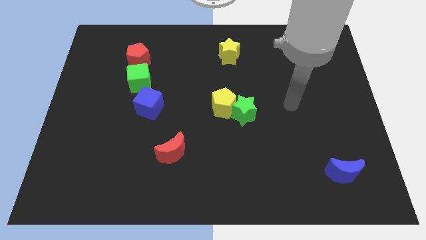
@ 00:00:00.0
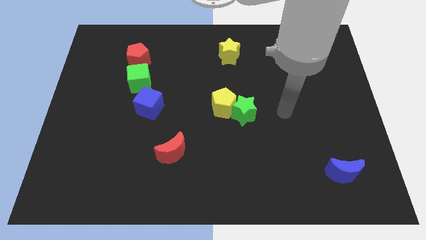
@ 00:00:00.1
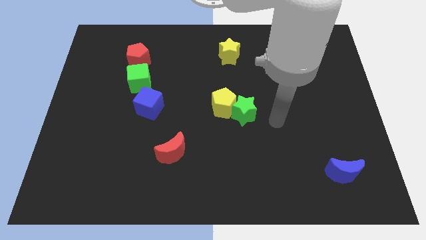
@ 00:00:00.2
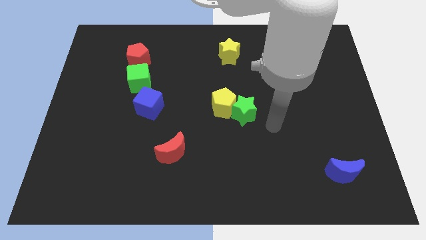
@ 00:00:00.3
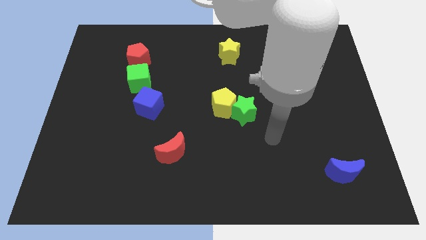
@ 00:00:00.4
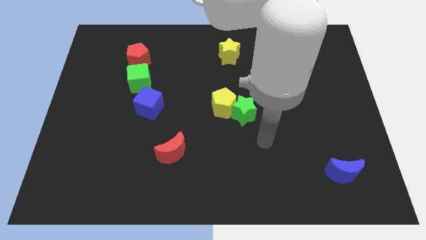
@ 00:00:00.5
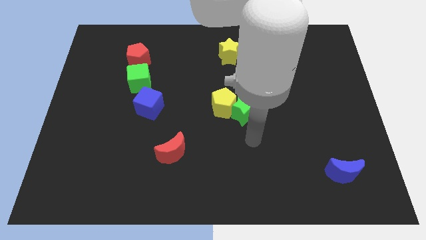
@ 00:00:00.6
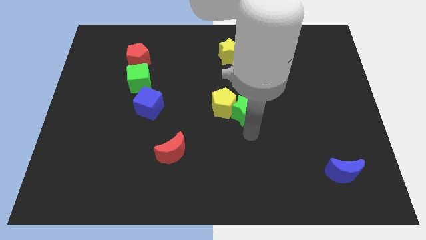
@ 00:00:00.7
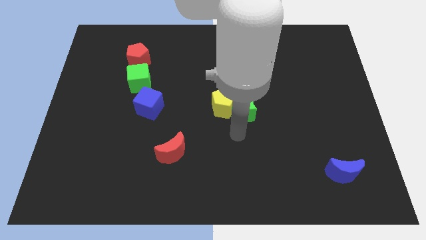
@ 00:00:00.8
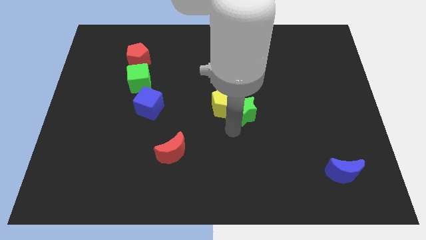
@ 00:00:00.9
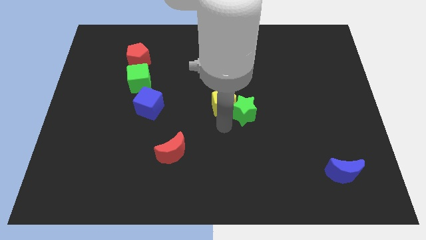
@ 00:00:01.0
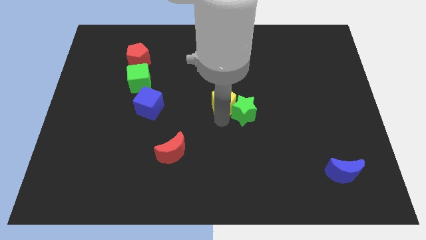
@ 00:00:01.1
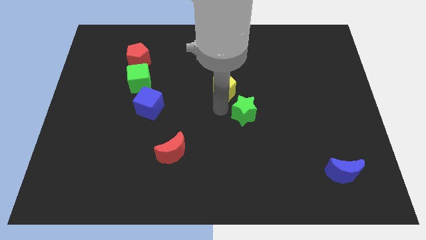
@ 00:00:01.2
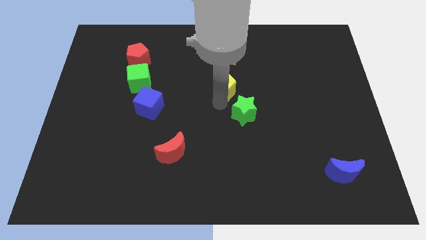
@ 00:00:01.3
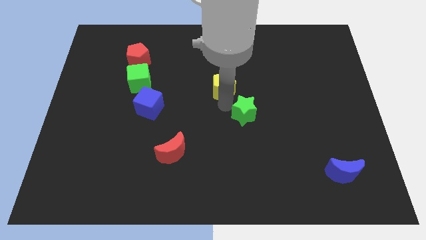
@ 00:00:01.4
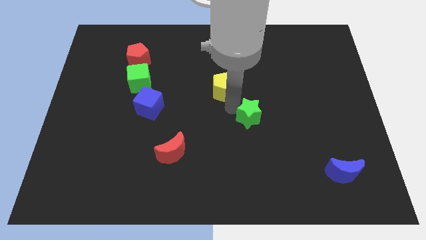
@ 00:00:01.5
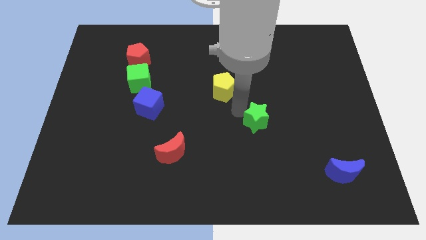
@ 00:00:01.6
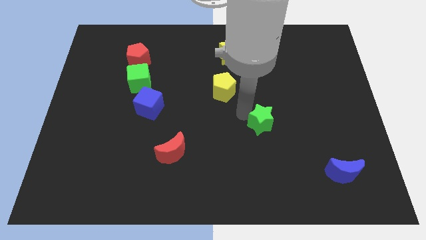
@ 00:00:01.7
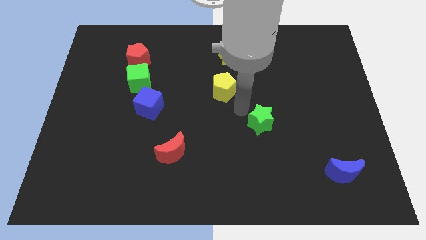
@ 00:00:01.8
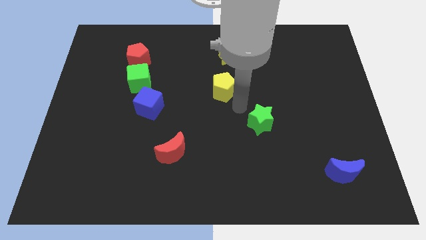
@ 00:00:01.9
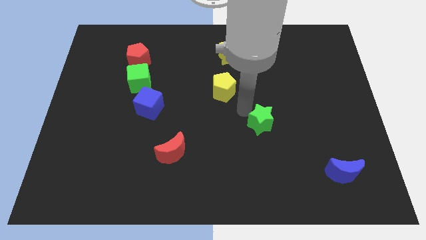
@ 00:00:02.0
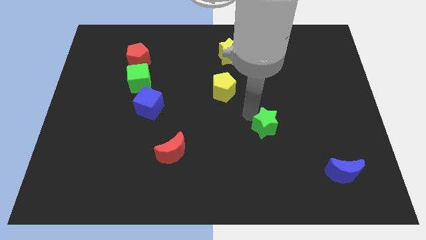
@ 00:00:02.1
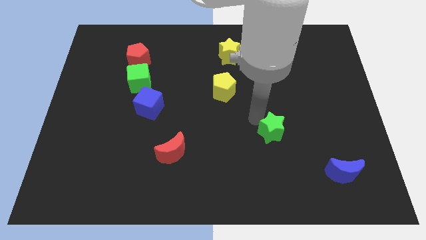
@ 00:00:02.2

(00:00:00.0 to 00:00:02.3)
slide the green star a bit diagonally down and to the right

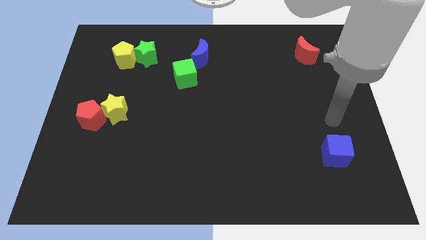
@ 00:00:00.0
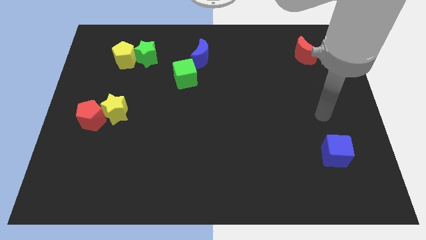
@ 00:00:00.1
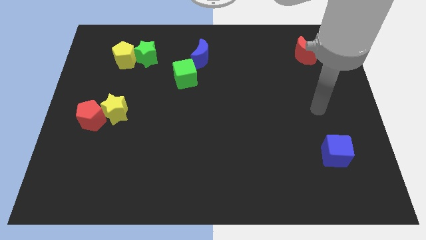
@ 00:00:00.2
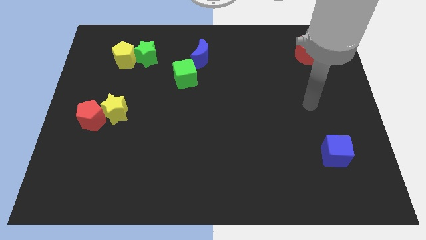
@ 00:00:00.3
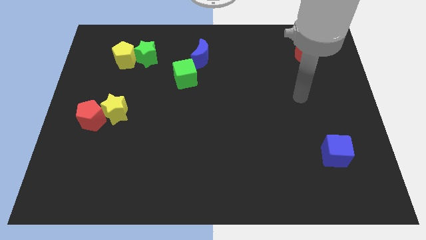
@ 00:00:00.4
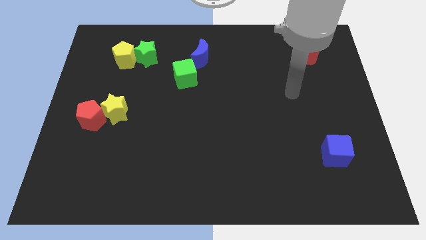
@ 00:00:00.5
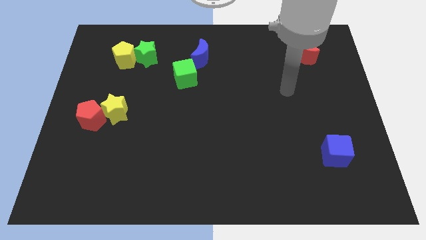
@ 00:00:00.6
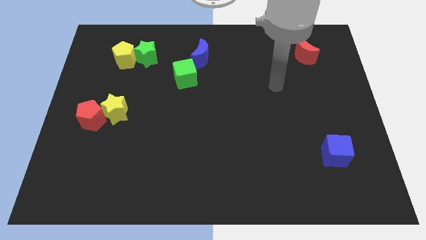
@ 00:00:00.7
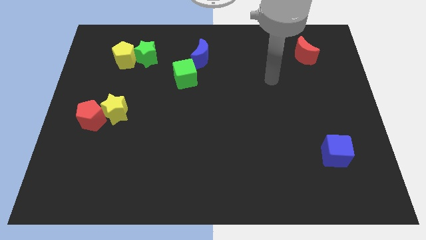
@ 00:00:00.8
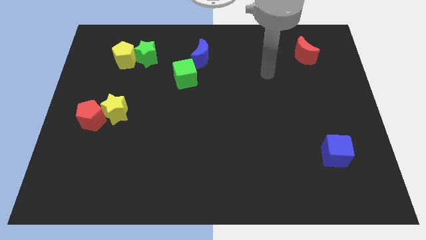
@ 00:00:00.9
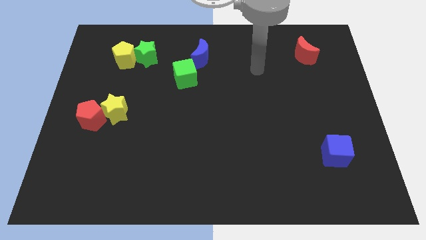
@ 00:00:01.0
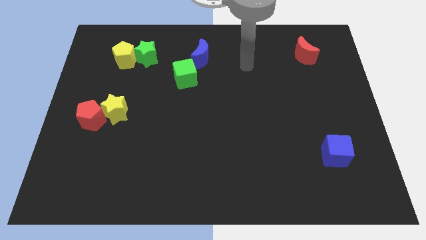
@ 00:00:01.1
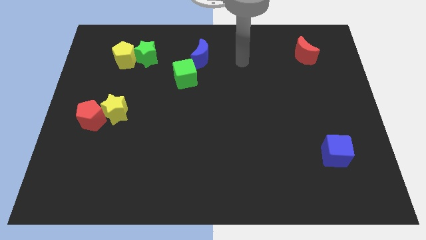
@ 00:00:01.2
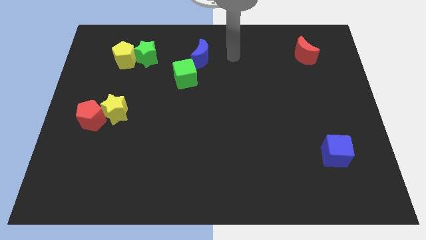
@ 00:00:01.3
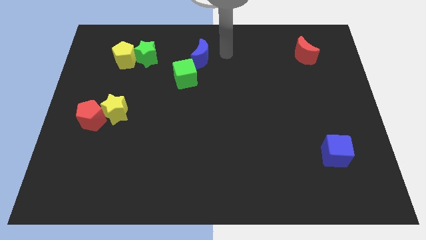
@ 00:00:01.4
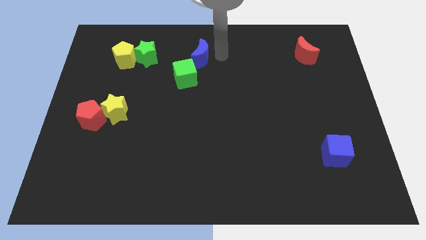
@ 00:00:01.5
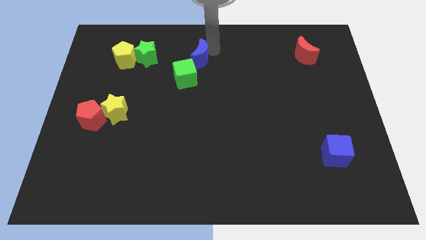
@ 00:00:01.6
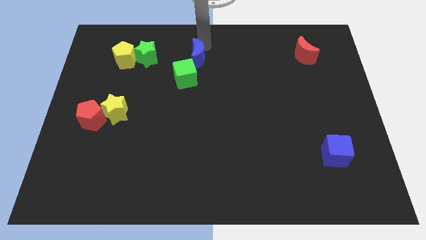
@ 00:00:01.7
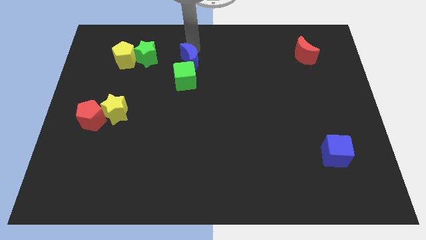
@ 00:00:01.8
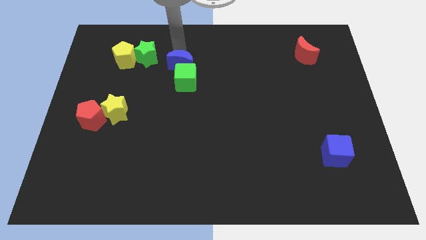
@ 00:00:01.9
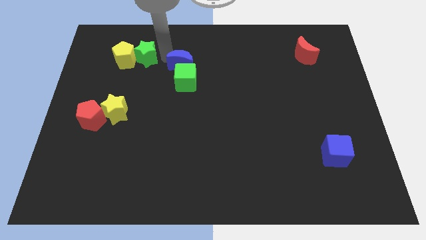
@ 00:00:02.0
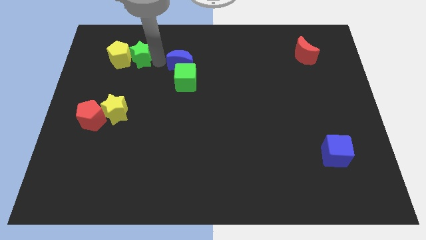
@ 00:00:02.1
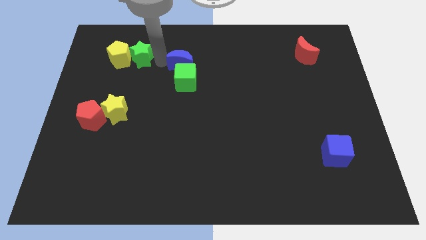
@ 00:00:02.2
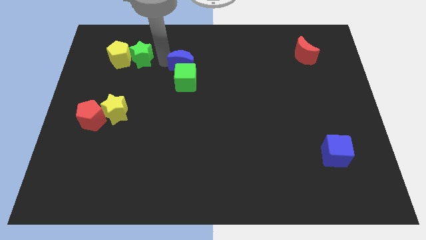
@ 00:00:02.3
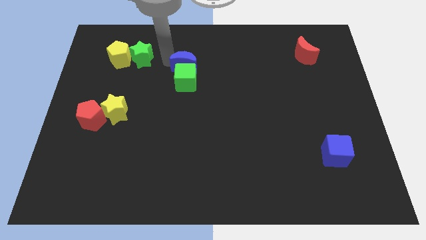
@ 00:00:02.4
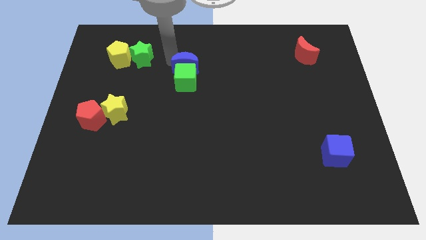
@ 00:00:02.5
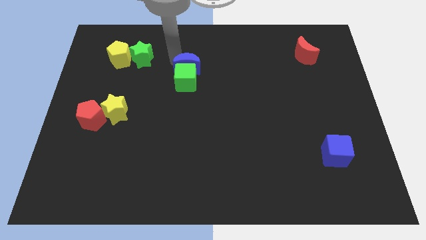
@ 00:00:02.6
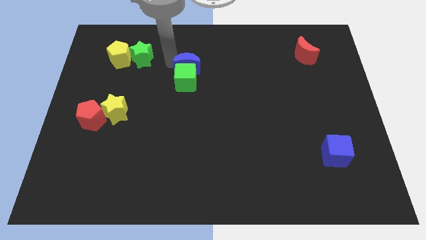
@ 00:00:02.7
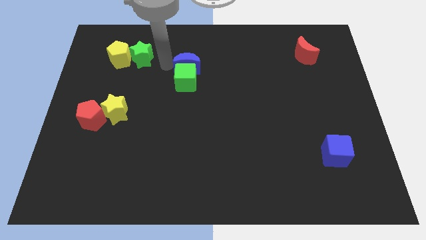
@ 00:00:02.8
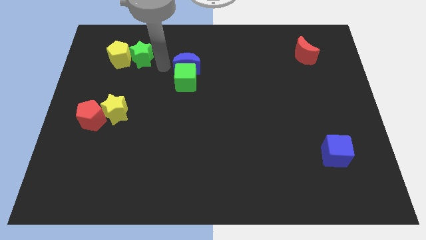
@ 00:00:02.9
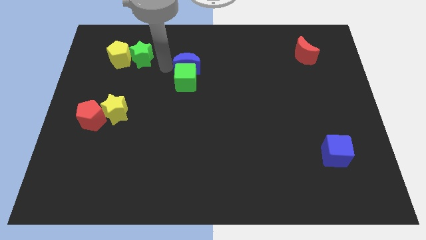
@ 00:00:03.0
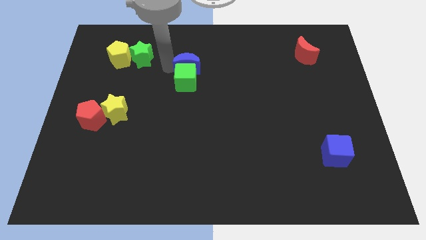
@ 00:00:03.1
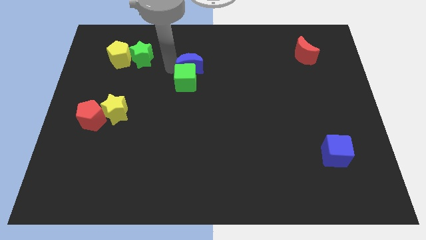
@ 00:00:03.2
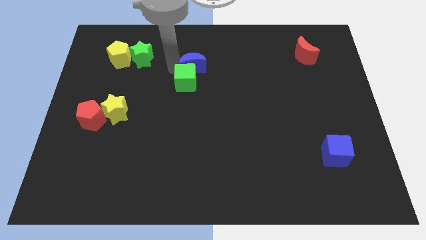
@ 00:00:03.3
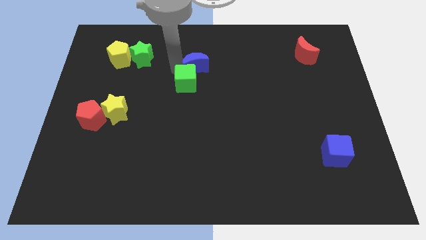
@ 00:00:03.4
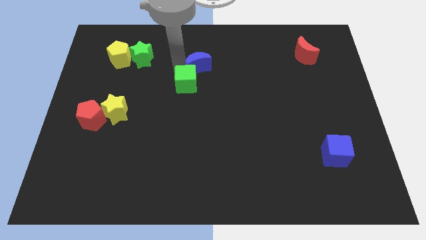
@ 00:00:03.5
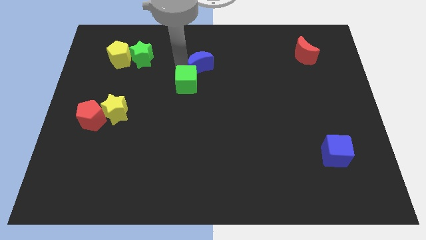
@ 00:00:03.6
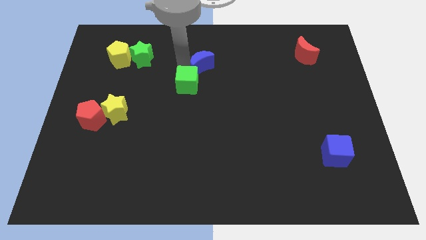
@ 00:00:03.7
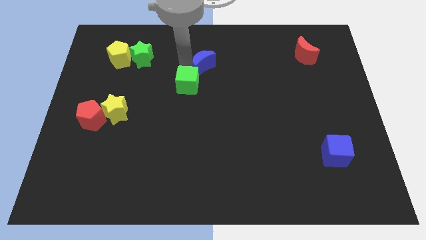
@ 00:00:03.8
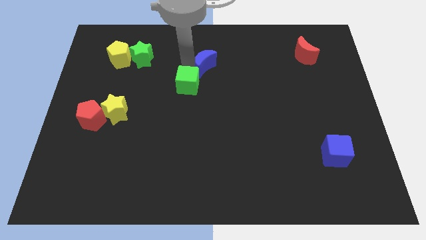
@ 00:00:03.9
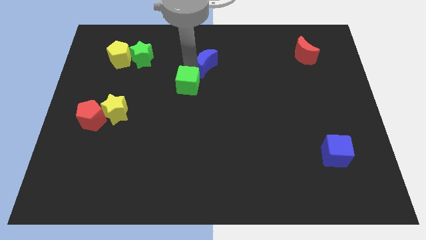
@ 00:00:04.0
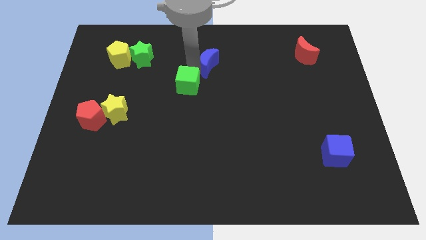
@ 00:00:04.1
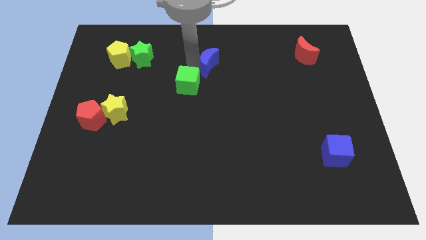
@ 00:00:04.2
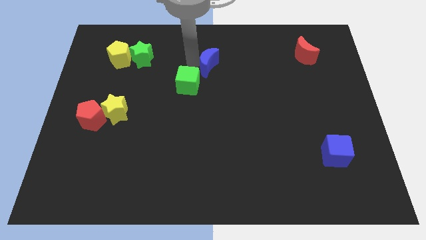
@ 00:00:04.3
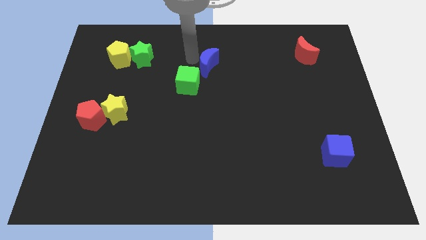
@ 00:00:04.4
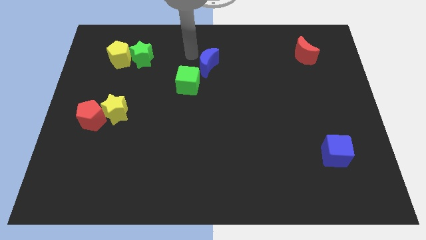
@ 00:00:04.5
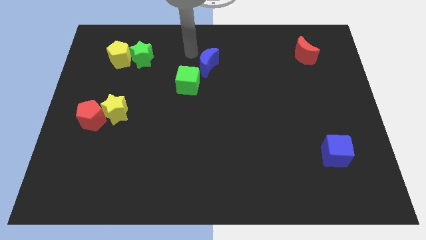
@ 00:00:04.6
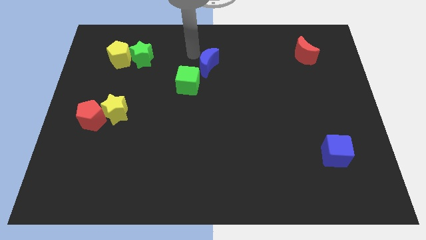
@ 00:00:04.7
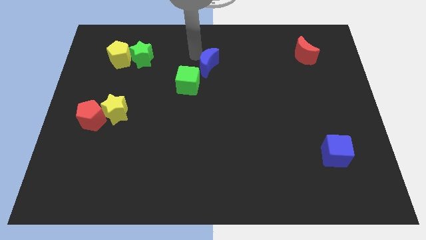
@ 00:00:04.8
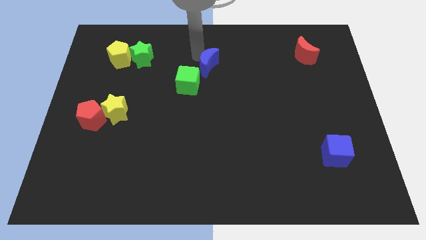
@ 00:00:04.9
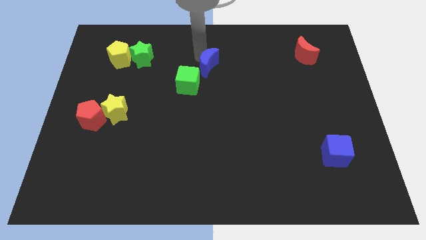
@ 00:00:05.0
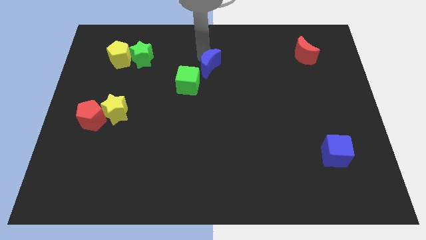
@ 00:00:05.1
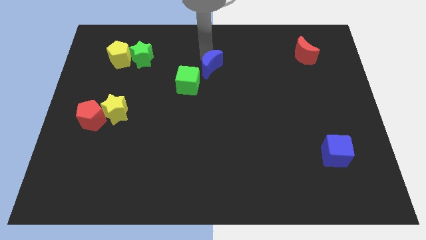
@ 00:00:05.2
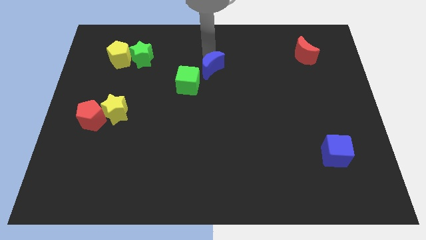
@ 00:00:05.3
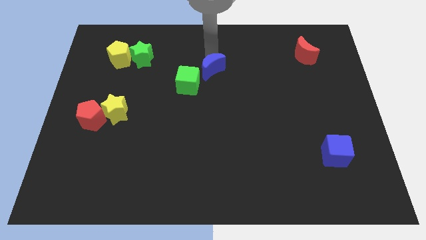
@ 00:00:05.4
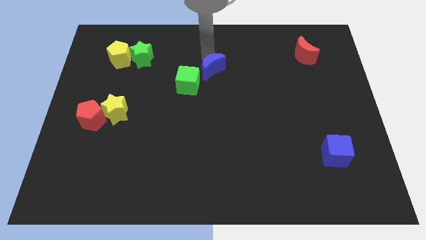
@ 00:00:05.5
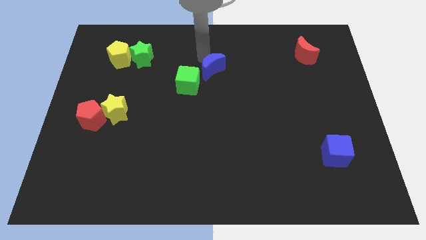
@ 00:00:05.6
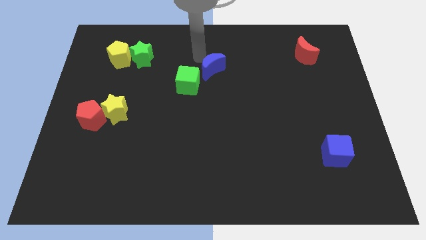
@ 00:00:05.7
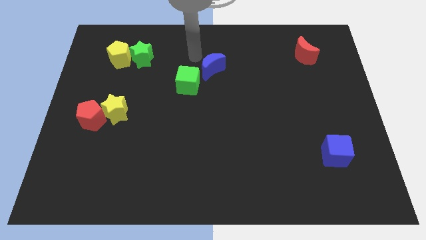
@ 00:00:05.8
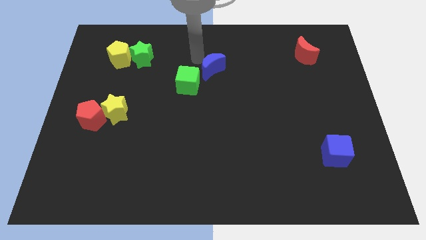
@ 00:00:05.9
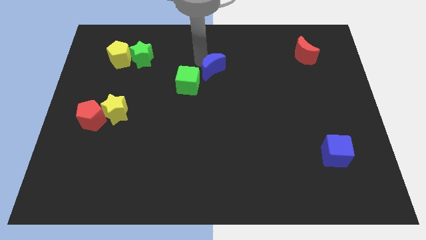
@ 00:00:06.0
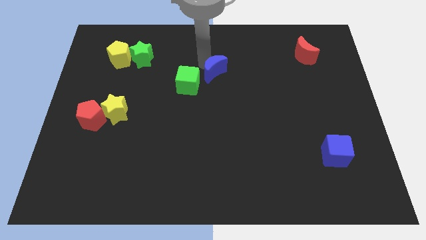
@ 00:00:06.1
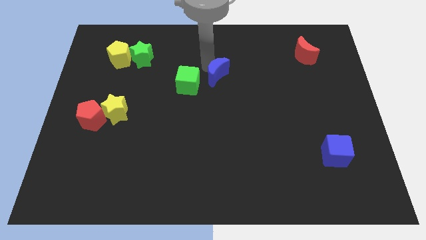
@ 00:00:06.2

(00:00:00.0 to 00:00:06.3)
move the blue moon diagonally down and right a little
